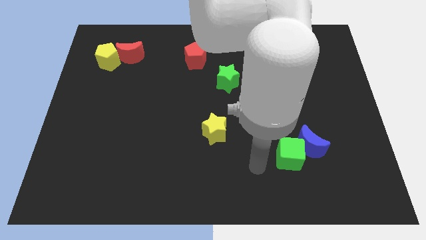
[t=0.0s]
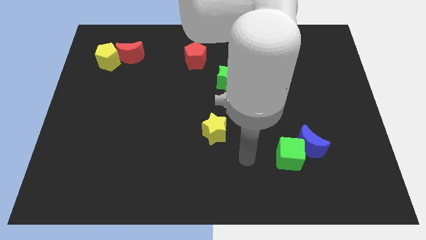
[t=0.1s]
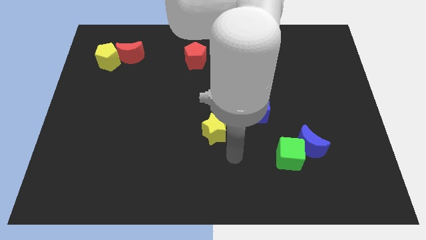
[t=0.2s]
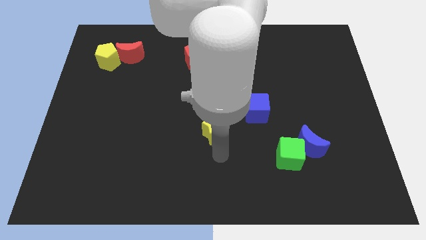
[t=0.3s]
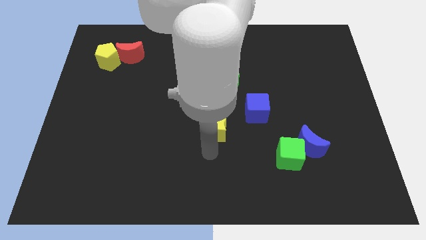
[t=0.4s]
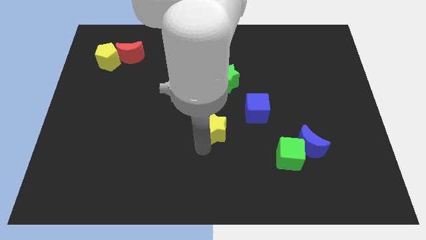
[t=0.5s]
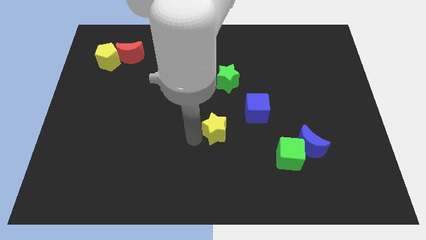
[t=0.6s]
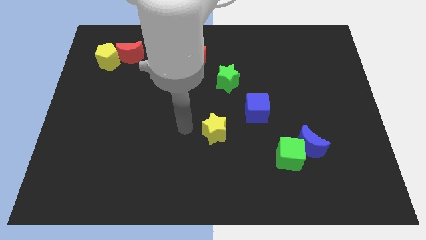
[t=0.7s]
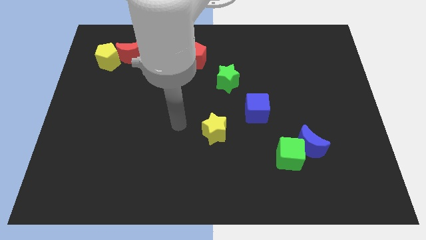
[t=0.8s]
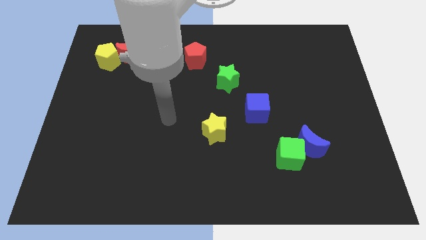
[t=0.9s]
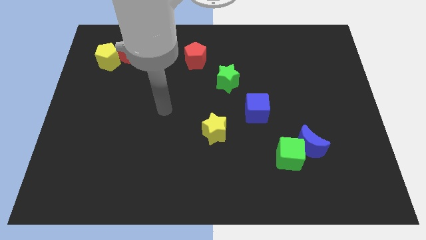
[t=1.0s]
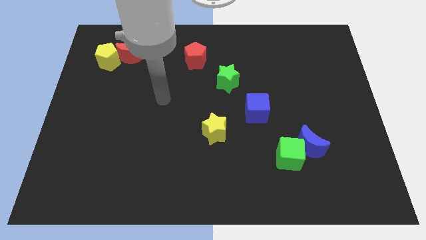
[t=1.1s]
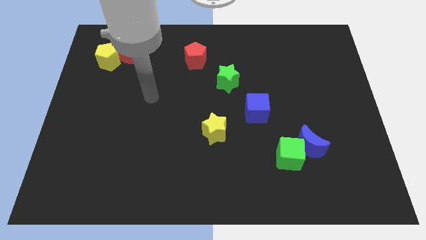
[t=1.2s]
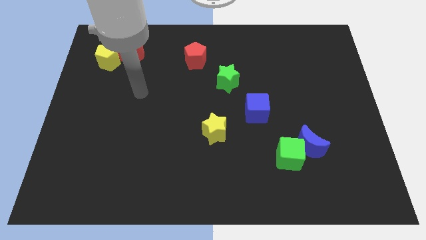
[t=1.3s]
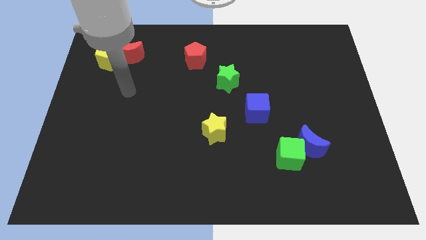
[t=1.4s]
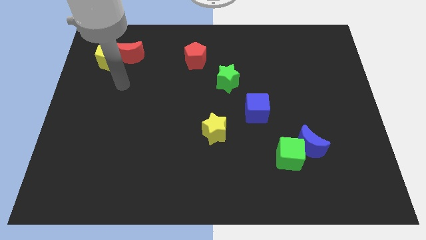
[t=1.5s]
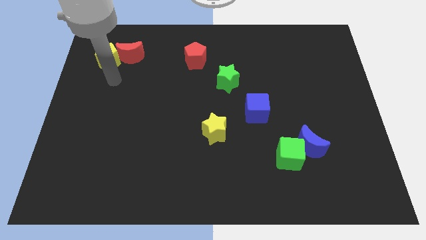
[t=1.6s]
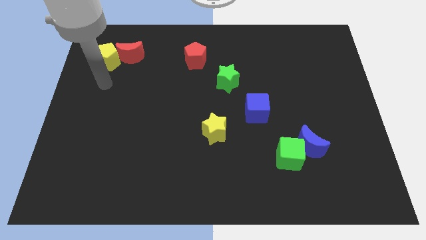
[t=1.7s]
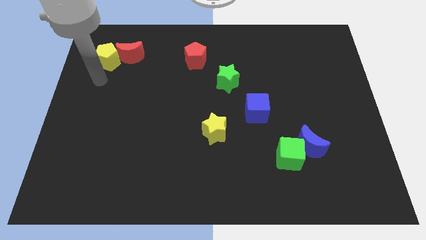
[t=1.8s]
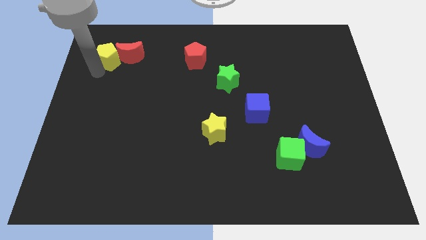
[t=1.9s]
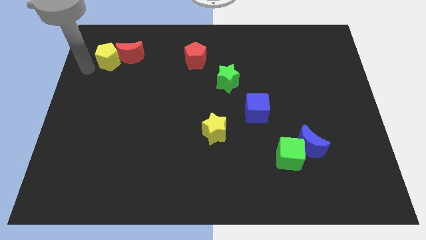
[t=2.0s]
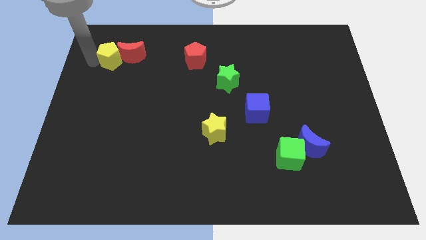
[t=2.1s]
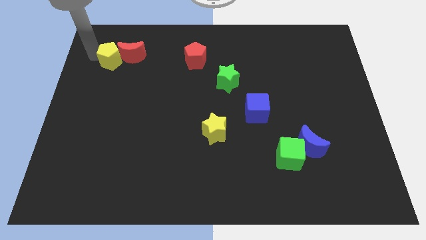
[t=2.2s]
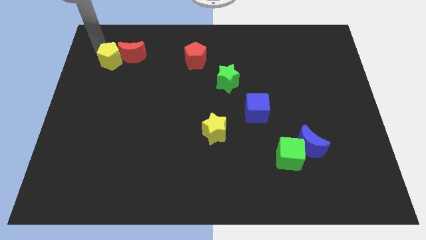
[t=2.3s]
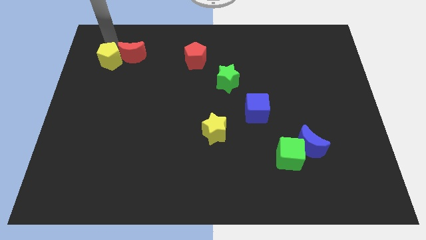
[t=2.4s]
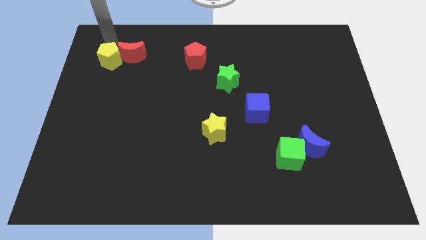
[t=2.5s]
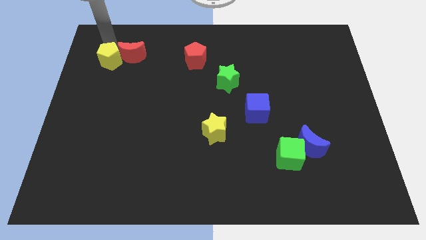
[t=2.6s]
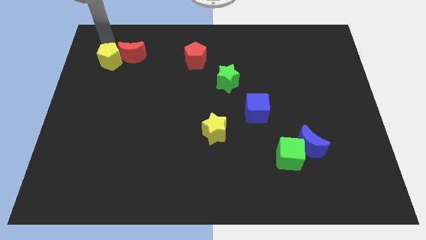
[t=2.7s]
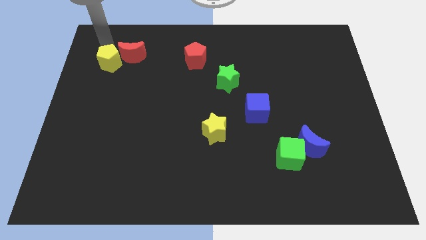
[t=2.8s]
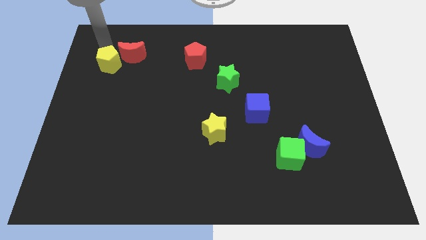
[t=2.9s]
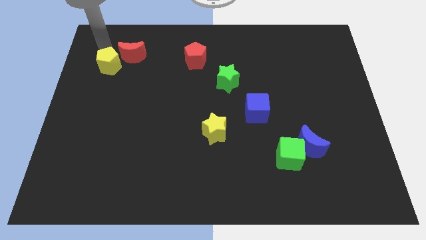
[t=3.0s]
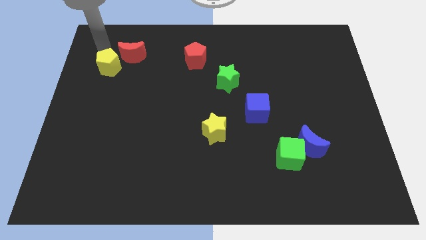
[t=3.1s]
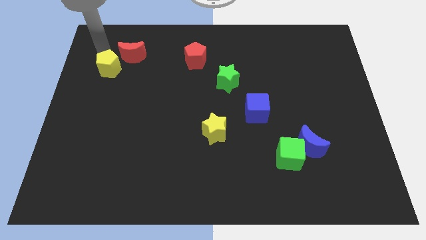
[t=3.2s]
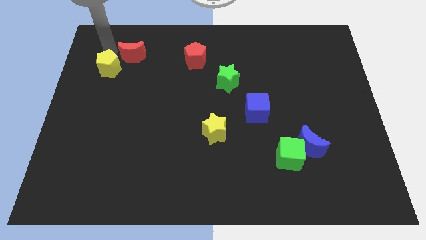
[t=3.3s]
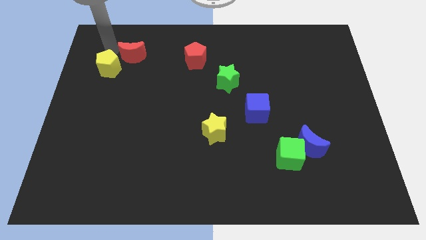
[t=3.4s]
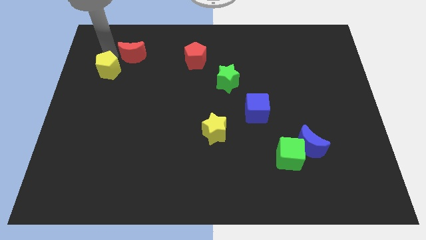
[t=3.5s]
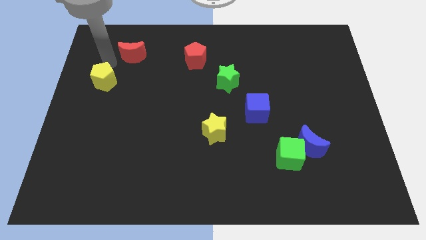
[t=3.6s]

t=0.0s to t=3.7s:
slightly push the yellow pentagon downwards

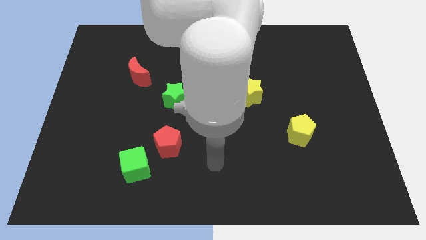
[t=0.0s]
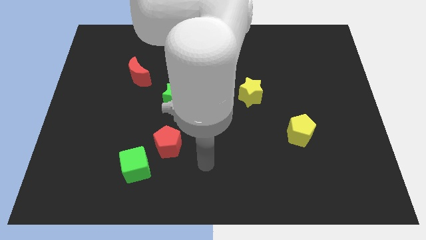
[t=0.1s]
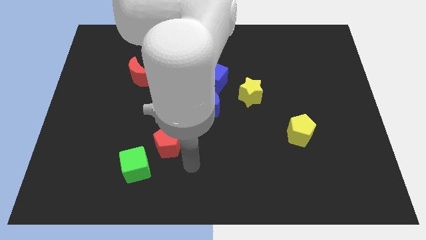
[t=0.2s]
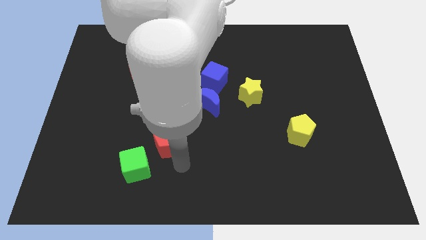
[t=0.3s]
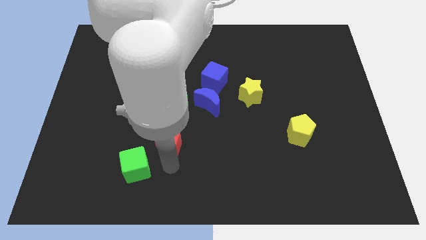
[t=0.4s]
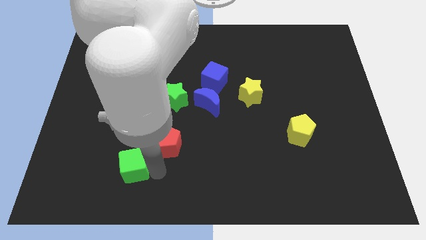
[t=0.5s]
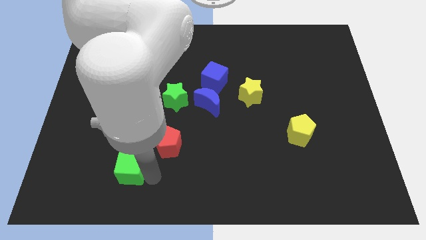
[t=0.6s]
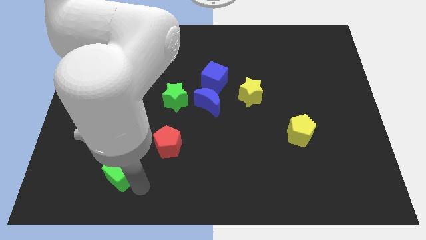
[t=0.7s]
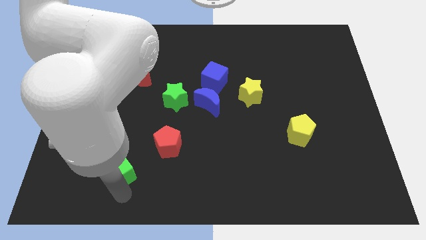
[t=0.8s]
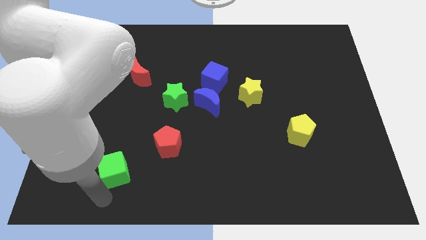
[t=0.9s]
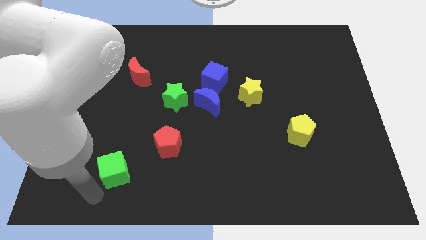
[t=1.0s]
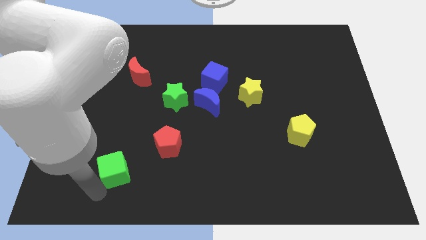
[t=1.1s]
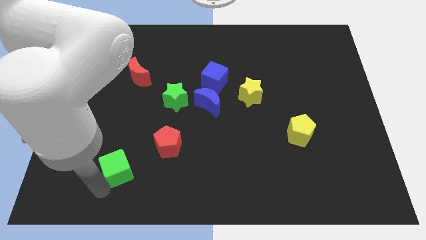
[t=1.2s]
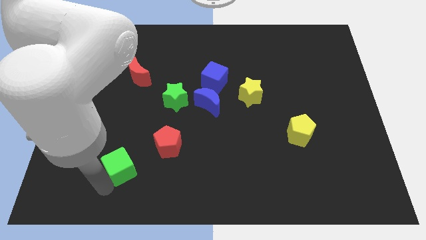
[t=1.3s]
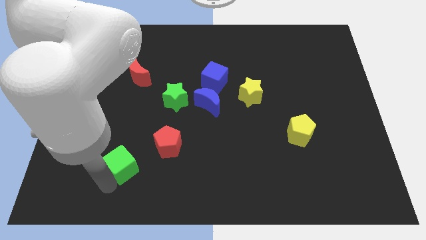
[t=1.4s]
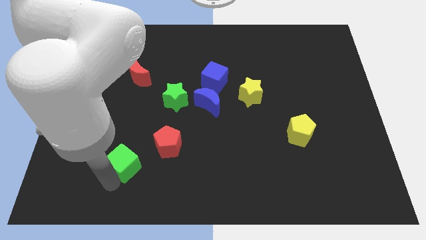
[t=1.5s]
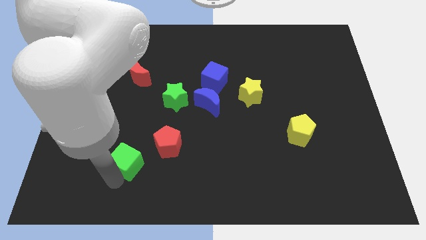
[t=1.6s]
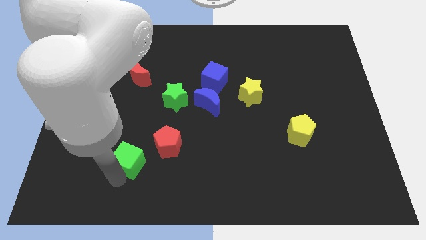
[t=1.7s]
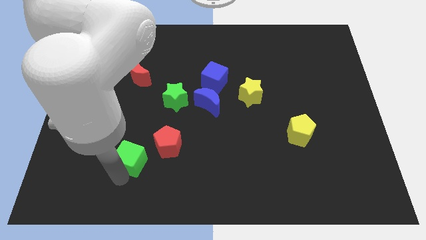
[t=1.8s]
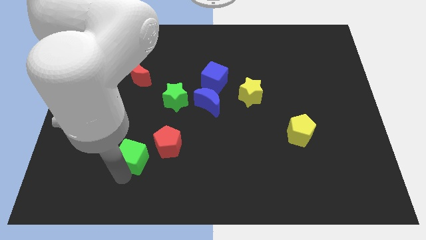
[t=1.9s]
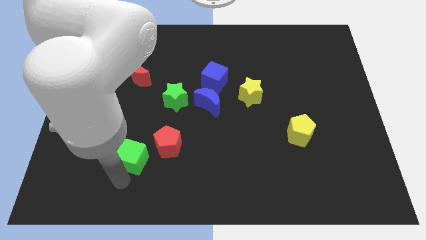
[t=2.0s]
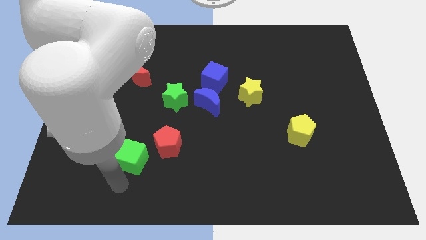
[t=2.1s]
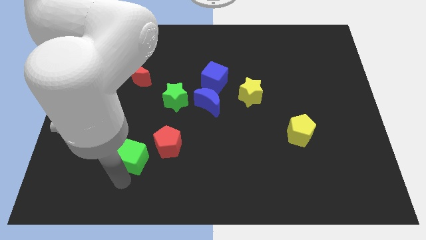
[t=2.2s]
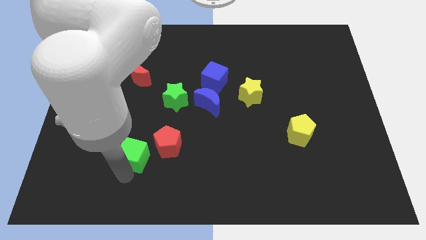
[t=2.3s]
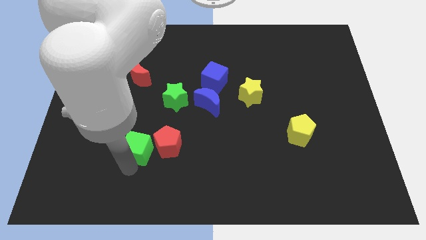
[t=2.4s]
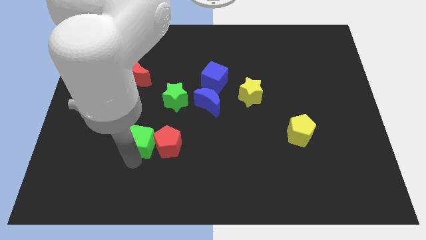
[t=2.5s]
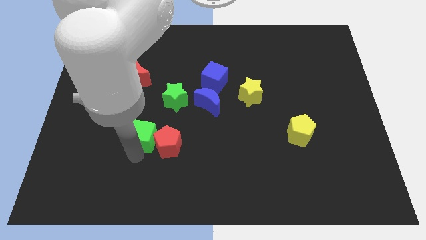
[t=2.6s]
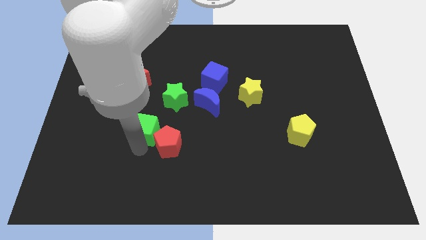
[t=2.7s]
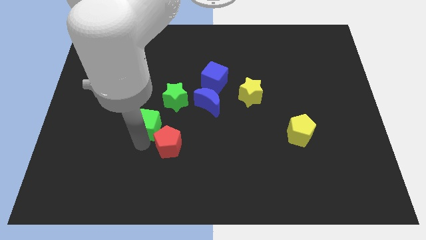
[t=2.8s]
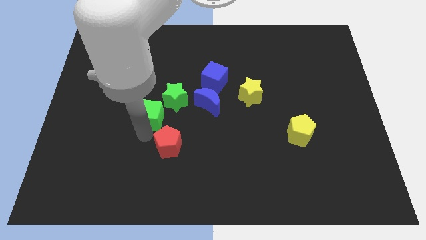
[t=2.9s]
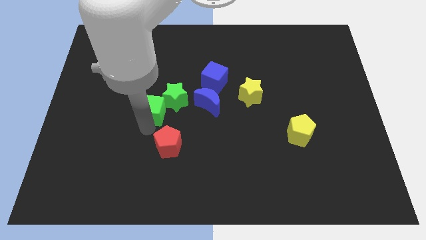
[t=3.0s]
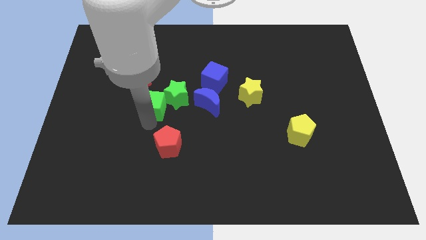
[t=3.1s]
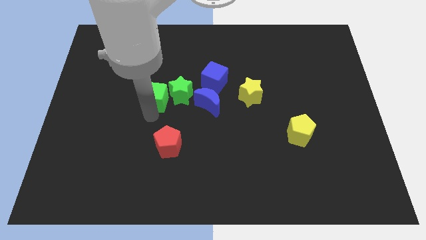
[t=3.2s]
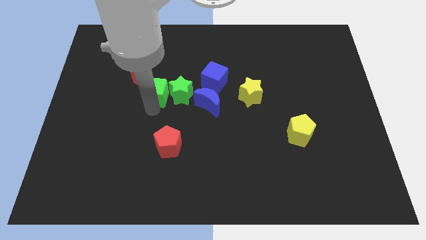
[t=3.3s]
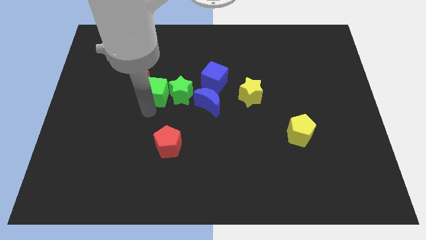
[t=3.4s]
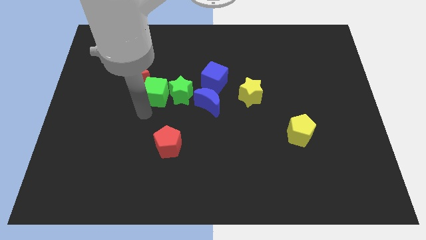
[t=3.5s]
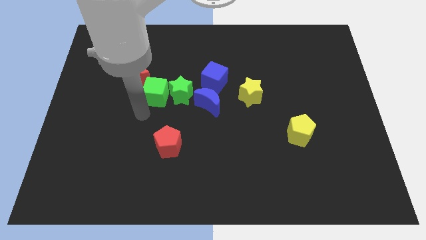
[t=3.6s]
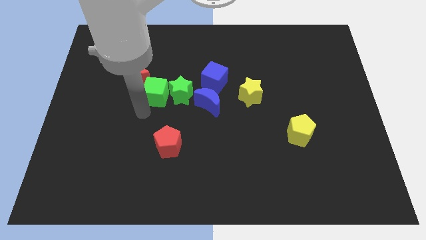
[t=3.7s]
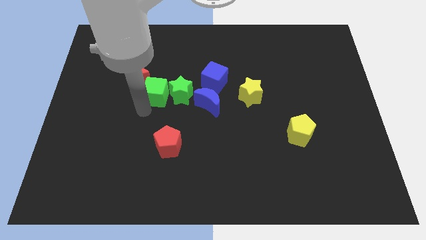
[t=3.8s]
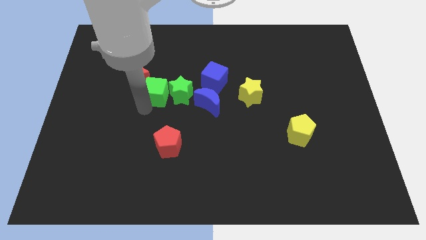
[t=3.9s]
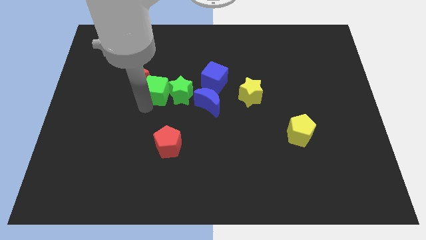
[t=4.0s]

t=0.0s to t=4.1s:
move the green cube up

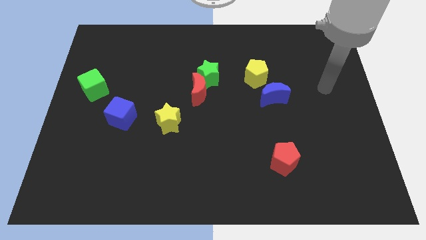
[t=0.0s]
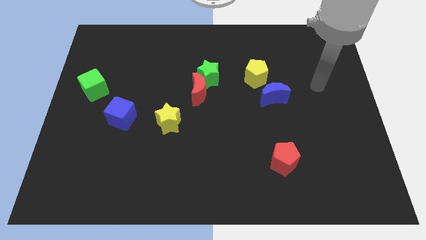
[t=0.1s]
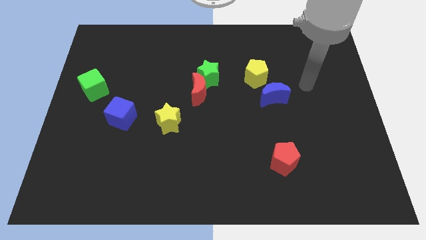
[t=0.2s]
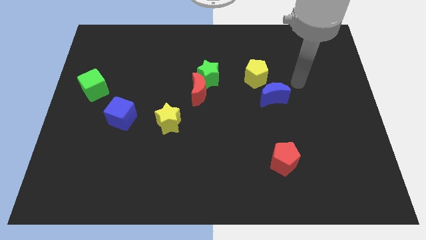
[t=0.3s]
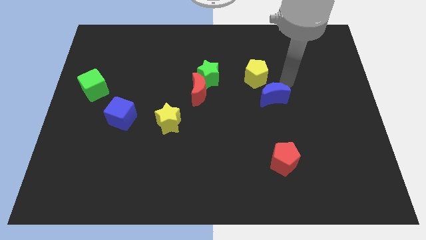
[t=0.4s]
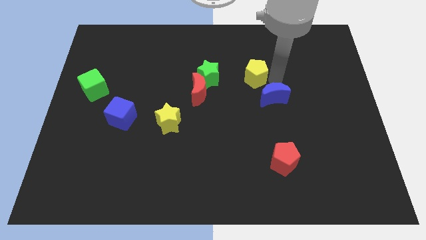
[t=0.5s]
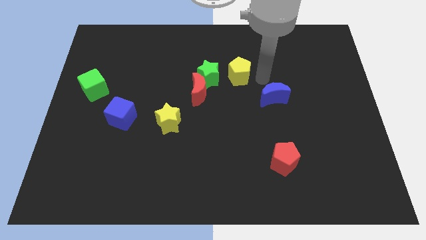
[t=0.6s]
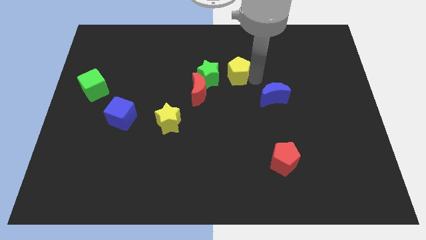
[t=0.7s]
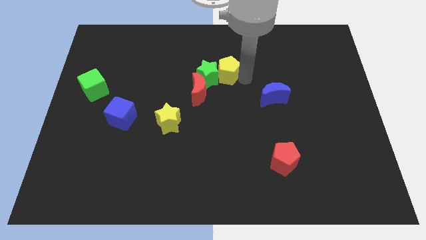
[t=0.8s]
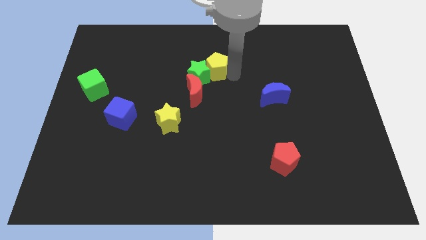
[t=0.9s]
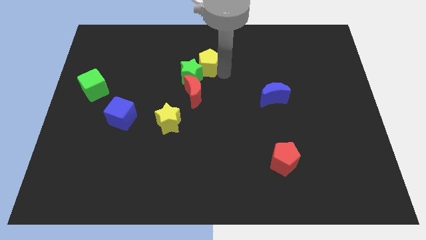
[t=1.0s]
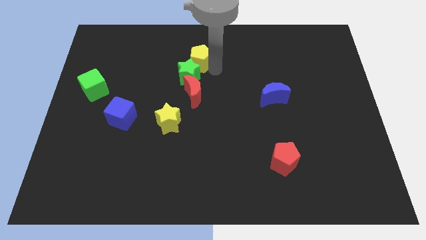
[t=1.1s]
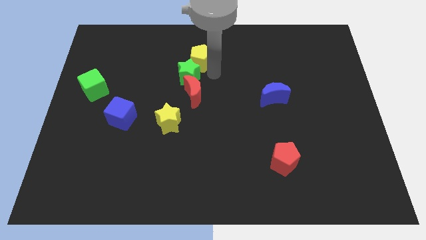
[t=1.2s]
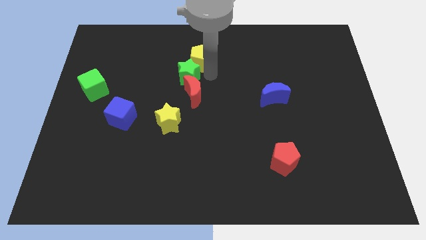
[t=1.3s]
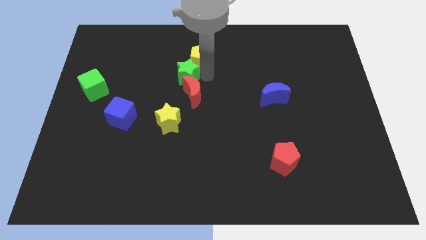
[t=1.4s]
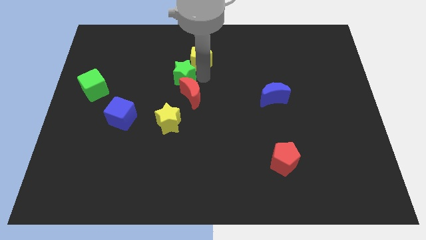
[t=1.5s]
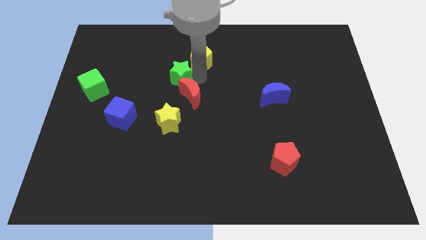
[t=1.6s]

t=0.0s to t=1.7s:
move the green star a bit to the left
